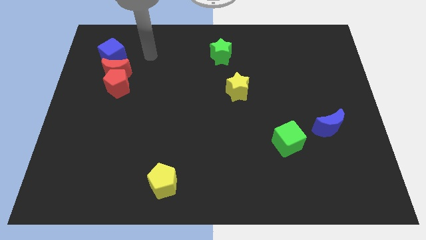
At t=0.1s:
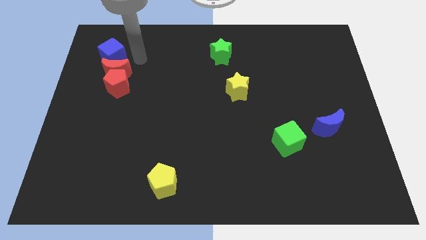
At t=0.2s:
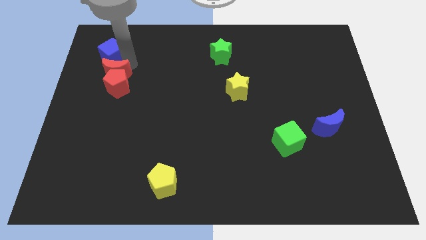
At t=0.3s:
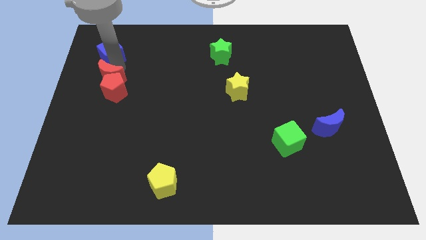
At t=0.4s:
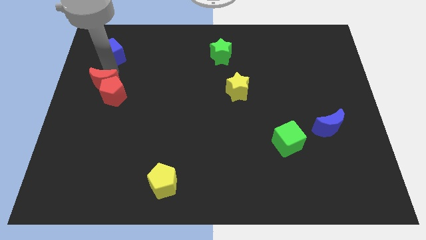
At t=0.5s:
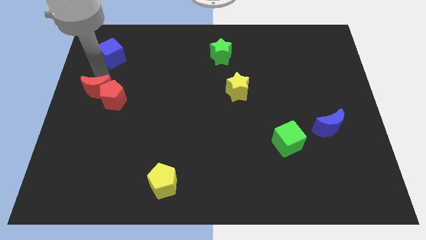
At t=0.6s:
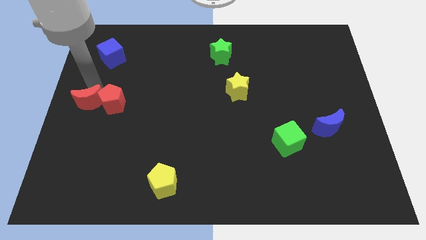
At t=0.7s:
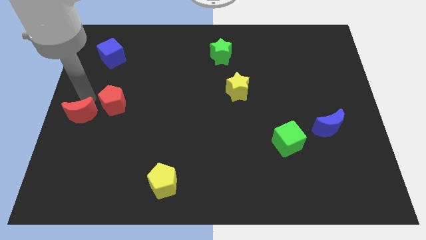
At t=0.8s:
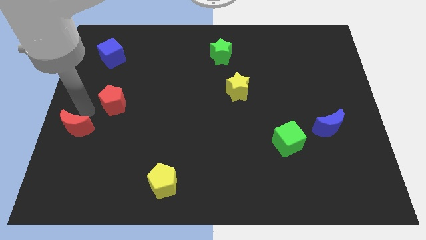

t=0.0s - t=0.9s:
pull the red pentagon apart from the red moon

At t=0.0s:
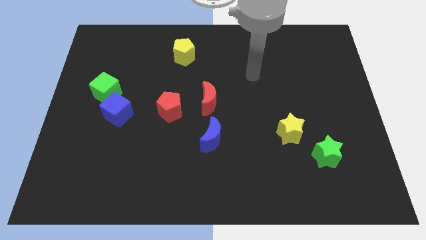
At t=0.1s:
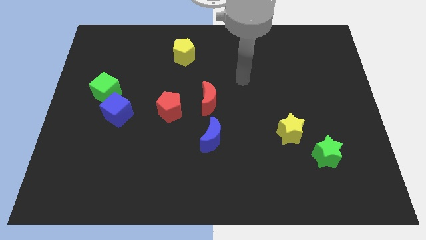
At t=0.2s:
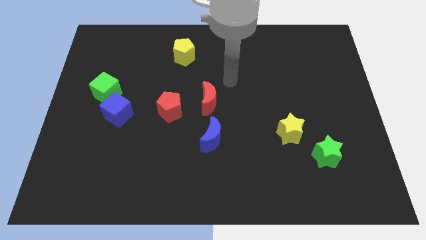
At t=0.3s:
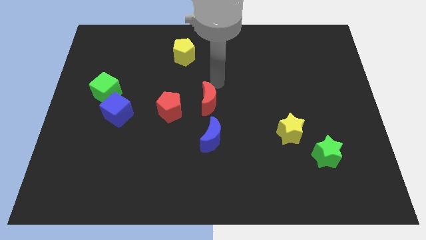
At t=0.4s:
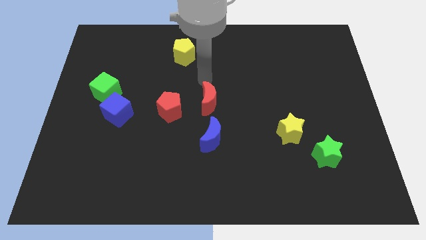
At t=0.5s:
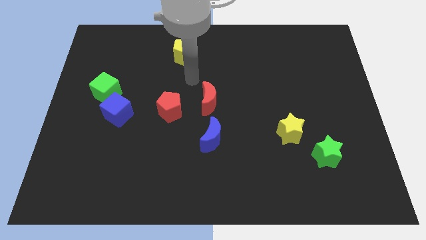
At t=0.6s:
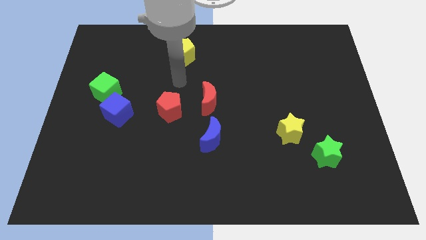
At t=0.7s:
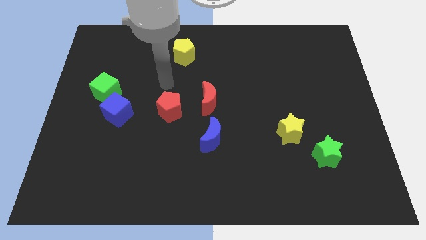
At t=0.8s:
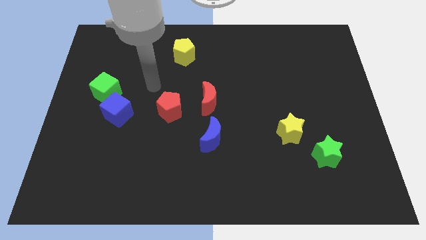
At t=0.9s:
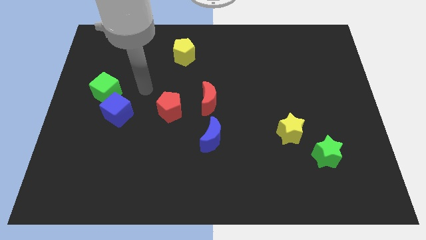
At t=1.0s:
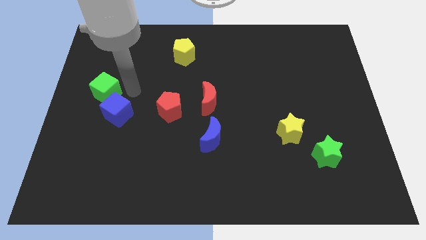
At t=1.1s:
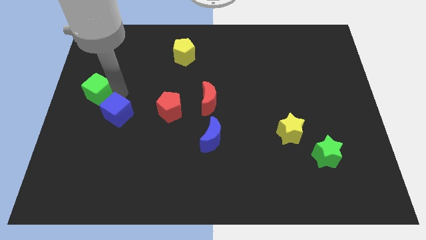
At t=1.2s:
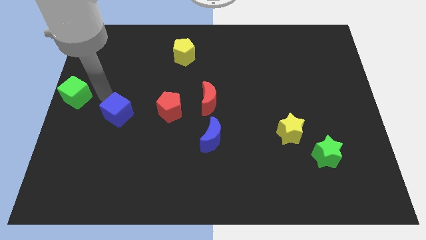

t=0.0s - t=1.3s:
pull the blue cube apart from the green cube

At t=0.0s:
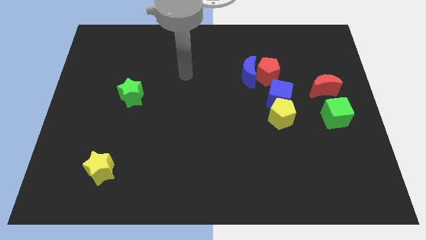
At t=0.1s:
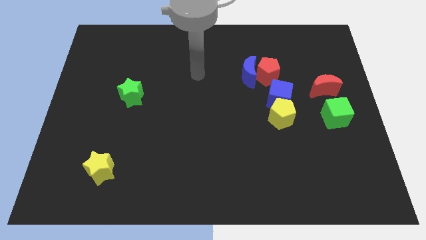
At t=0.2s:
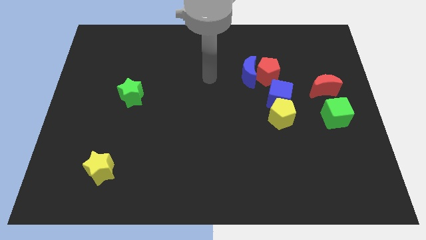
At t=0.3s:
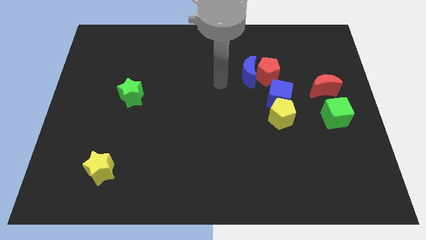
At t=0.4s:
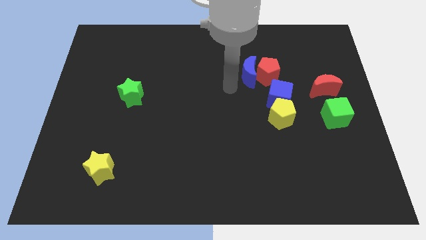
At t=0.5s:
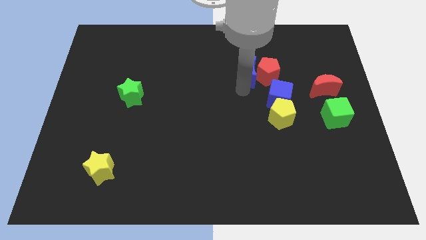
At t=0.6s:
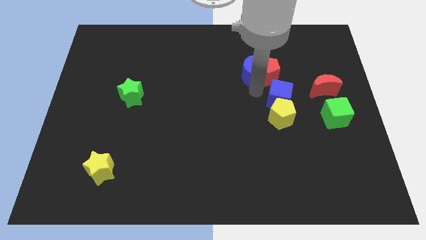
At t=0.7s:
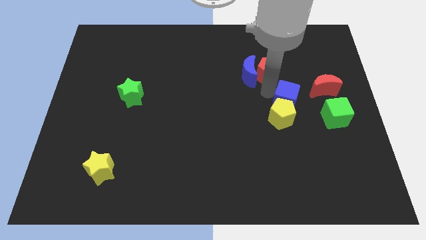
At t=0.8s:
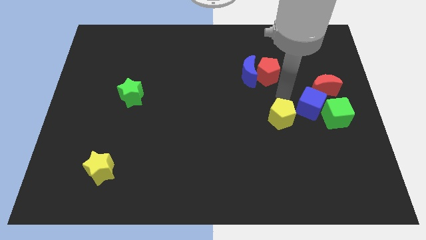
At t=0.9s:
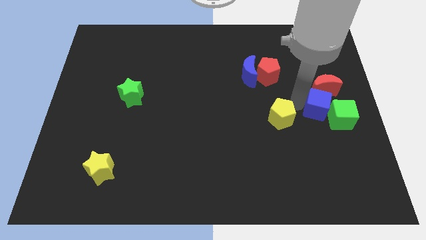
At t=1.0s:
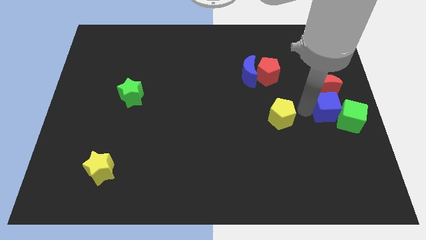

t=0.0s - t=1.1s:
separate the yellow pentagon from the blue cube

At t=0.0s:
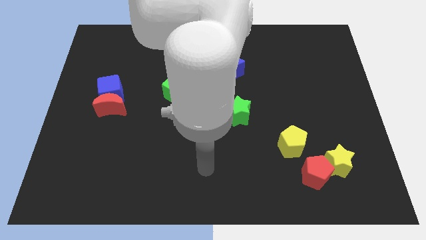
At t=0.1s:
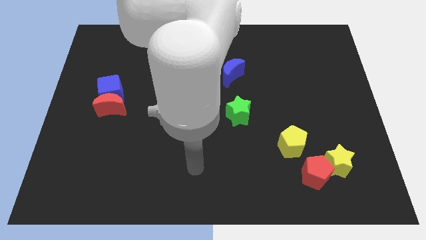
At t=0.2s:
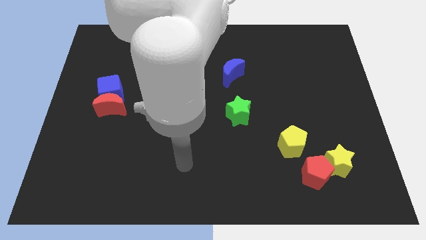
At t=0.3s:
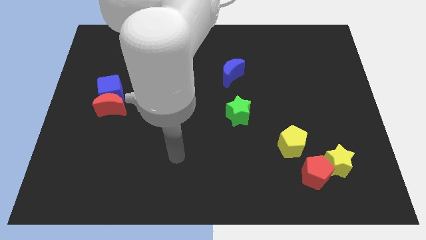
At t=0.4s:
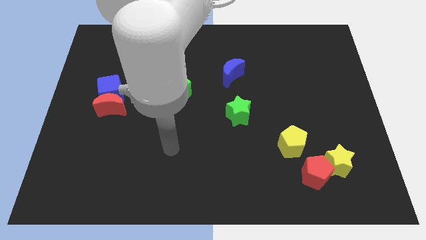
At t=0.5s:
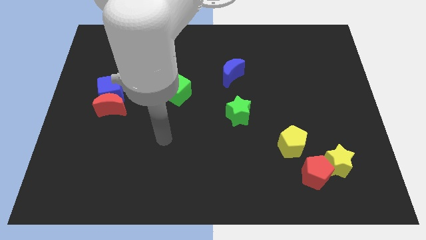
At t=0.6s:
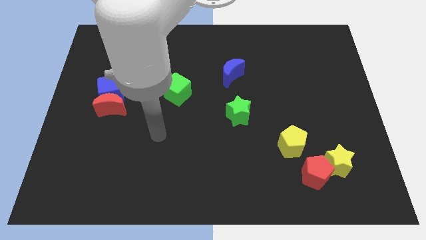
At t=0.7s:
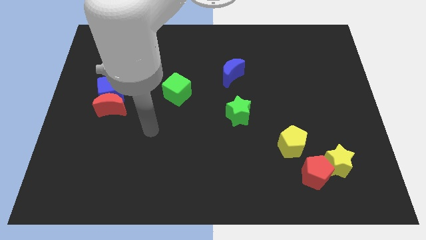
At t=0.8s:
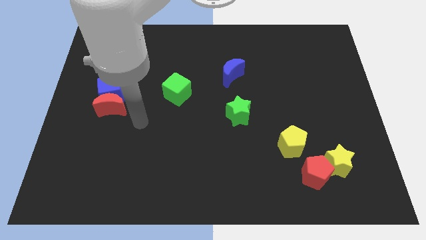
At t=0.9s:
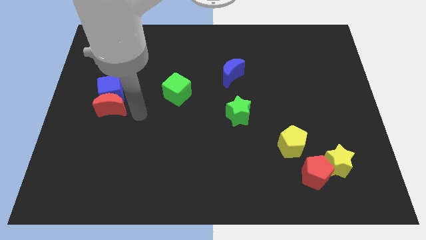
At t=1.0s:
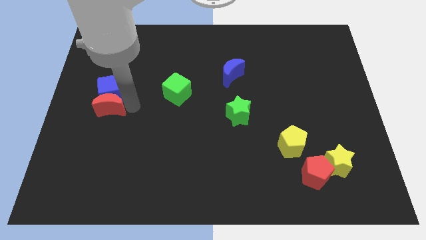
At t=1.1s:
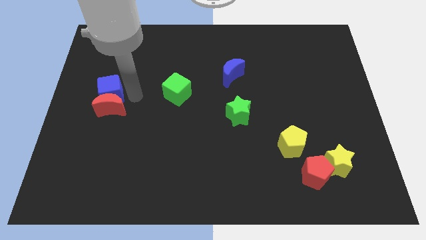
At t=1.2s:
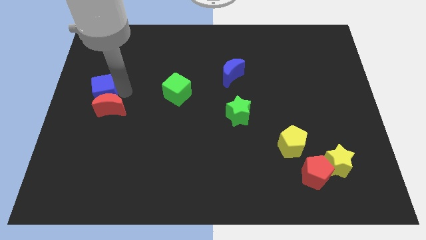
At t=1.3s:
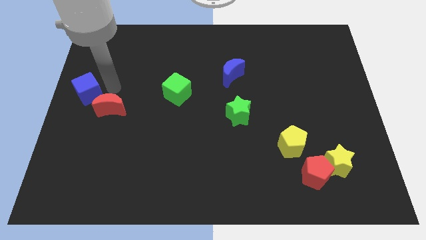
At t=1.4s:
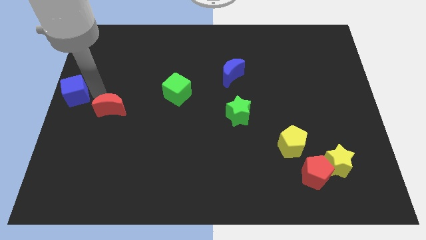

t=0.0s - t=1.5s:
separate the red moon from the blue cube

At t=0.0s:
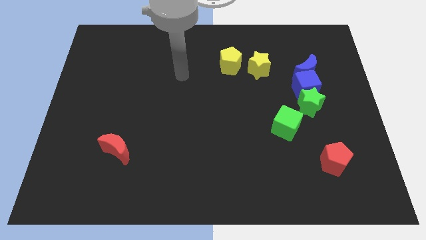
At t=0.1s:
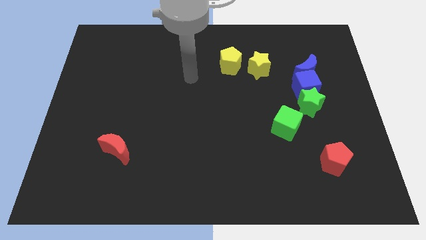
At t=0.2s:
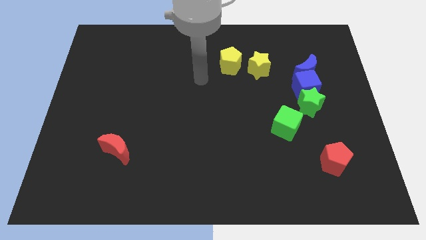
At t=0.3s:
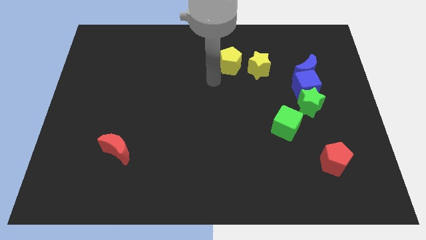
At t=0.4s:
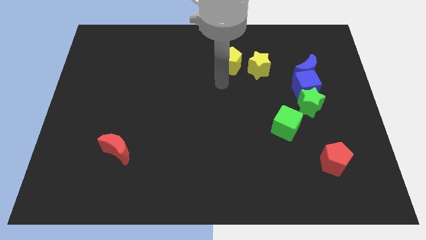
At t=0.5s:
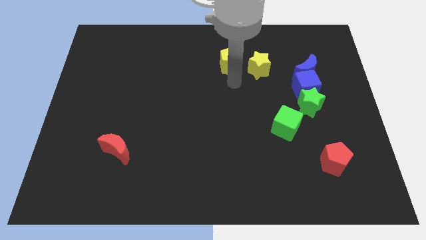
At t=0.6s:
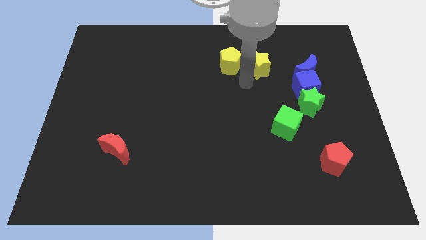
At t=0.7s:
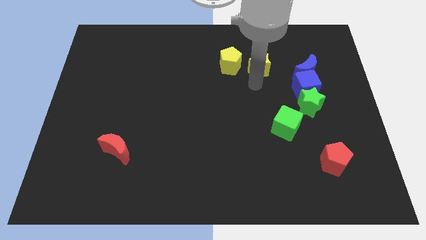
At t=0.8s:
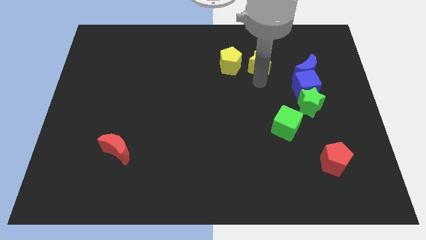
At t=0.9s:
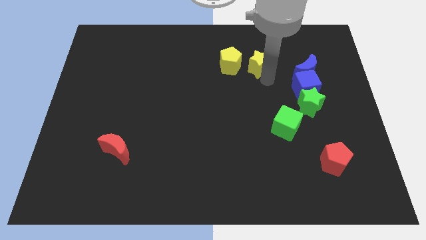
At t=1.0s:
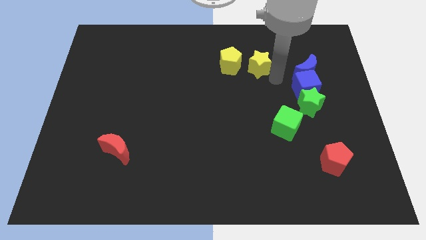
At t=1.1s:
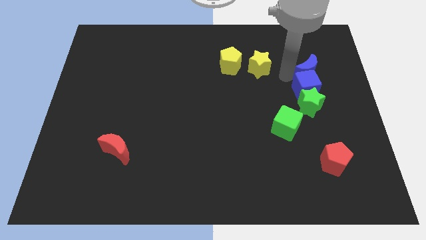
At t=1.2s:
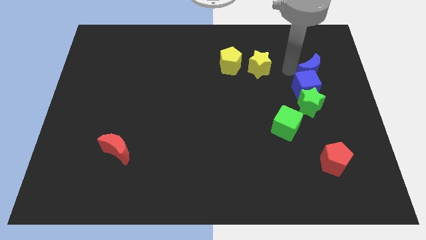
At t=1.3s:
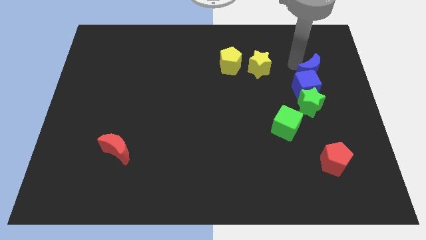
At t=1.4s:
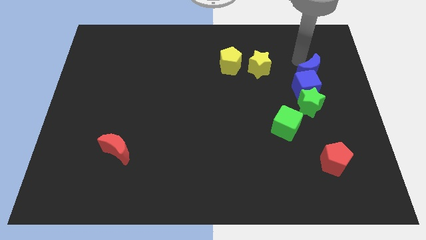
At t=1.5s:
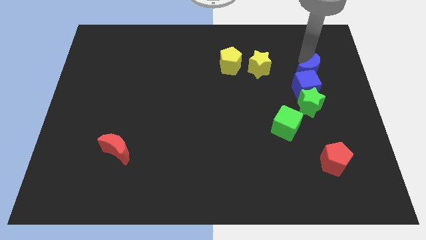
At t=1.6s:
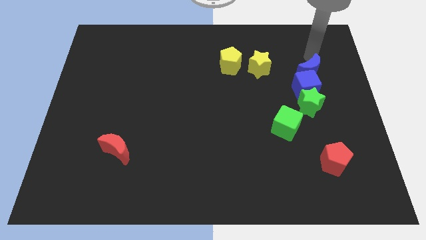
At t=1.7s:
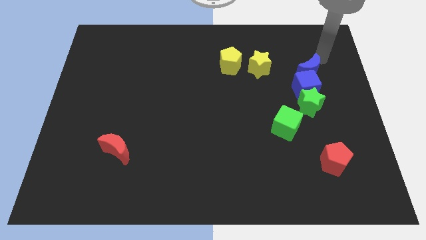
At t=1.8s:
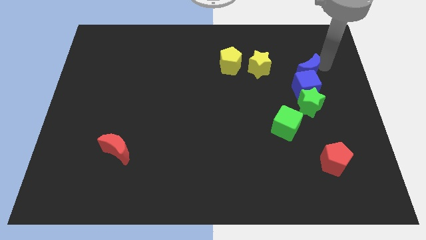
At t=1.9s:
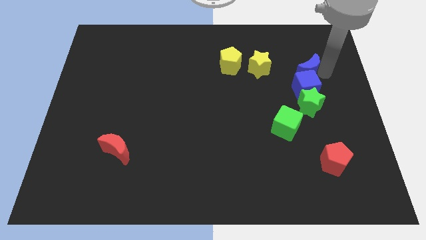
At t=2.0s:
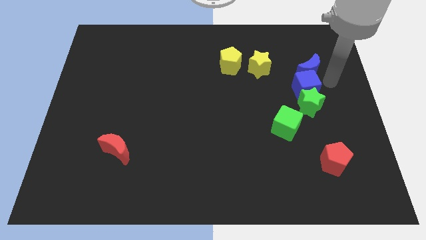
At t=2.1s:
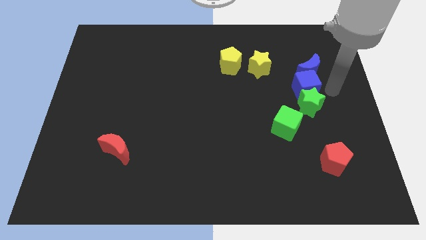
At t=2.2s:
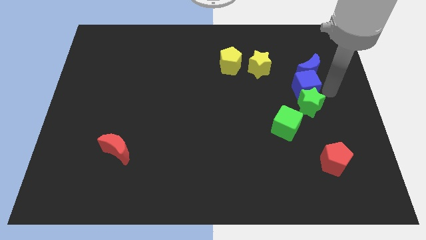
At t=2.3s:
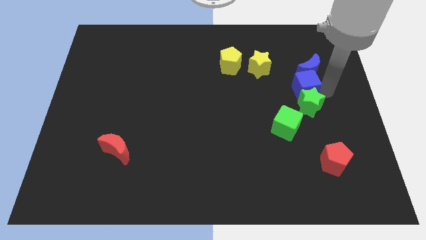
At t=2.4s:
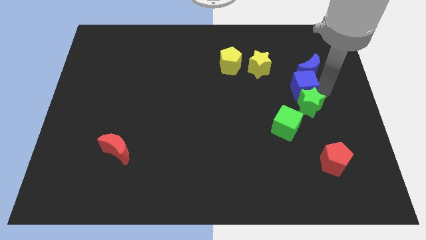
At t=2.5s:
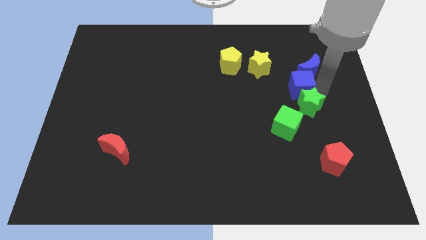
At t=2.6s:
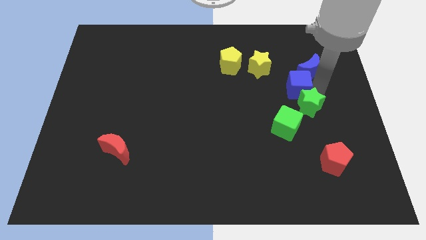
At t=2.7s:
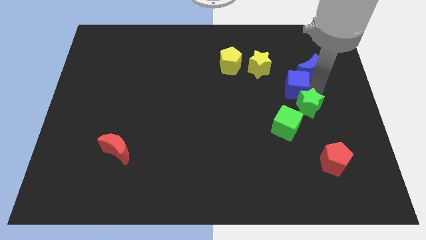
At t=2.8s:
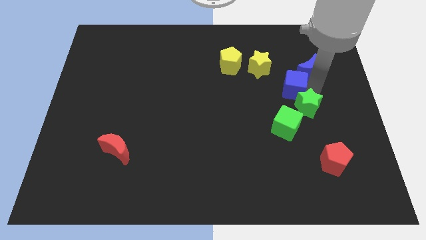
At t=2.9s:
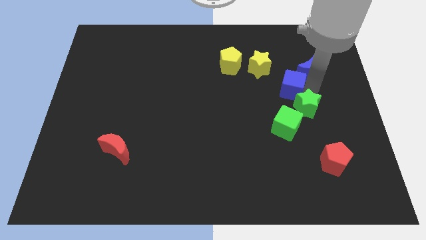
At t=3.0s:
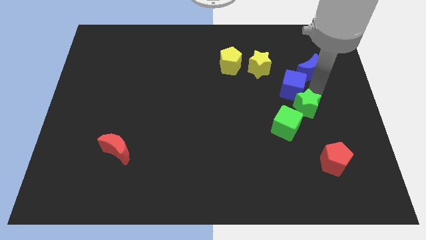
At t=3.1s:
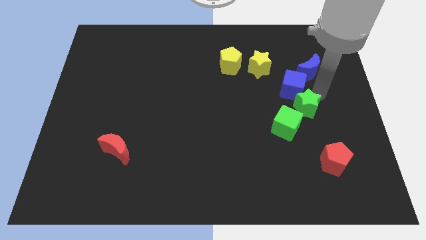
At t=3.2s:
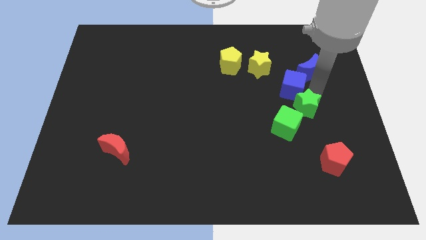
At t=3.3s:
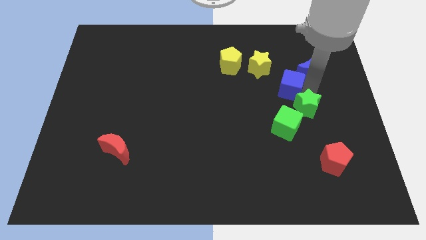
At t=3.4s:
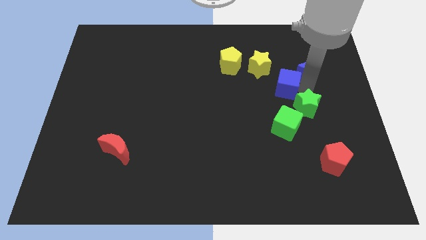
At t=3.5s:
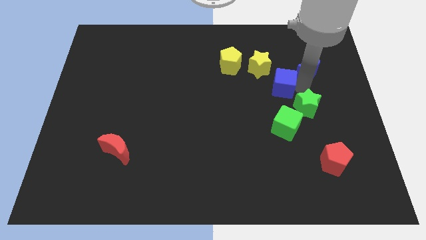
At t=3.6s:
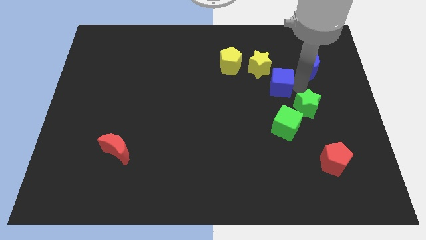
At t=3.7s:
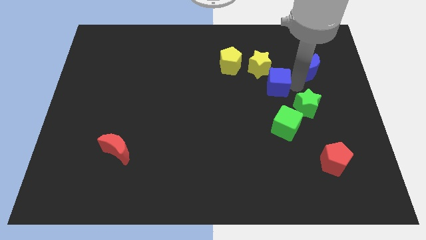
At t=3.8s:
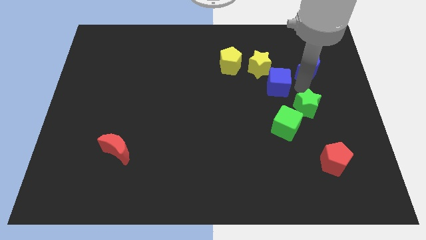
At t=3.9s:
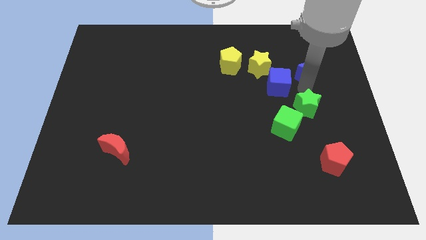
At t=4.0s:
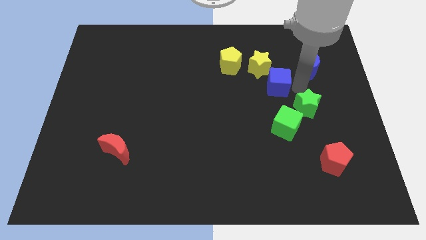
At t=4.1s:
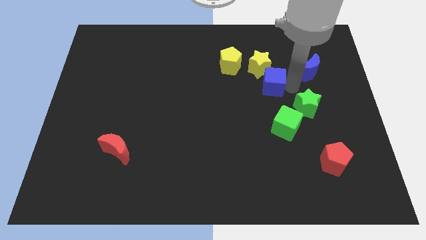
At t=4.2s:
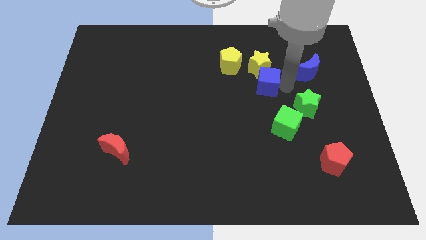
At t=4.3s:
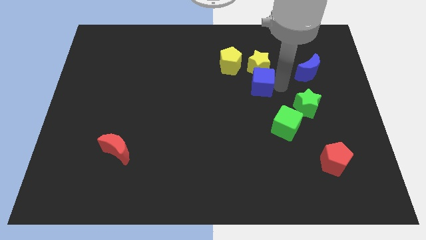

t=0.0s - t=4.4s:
separate the blue cube from the green star and blue moon
